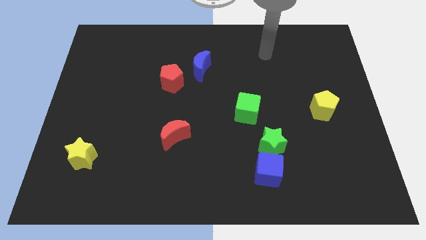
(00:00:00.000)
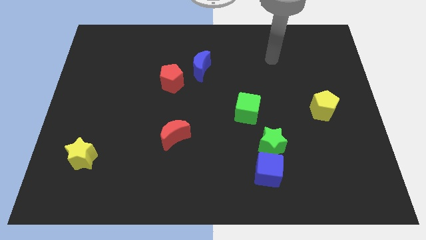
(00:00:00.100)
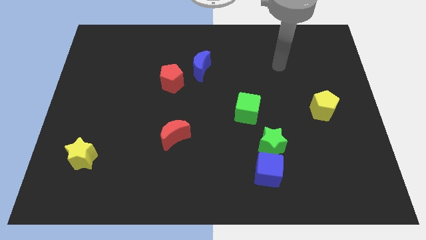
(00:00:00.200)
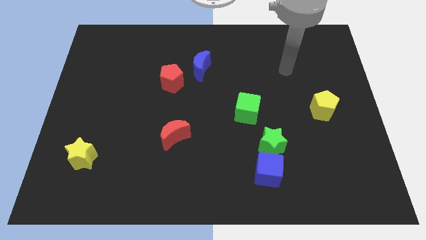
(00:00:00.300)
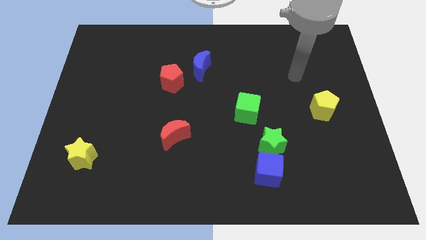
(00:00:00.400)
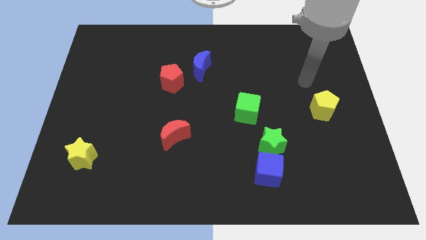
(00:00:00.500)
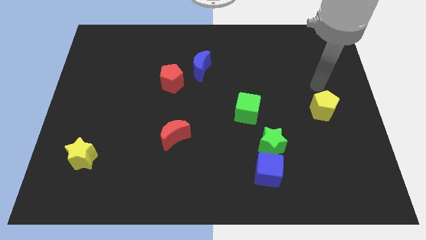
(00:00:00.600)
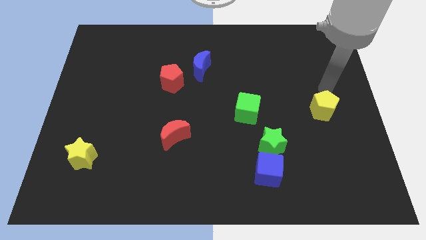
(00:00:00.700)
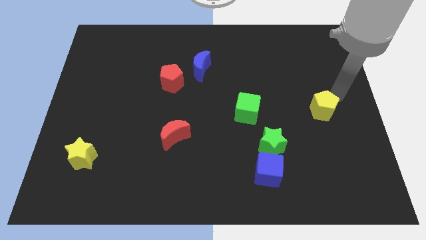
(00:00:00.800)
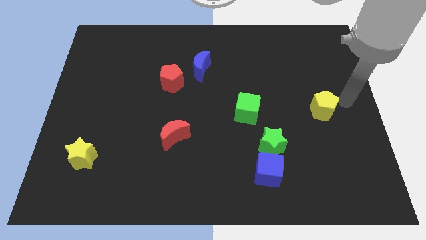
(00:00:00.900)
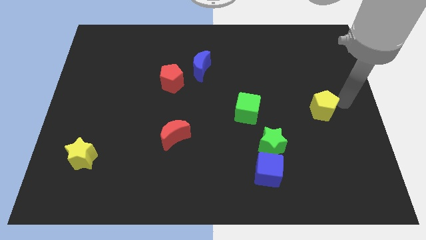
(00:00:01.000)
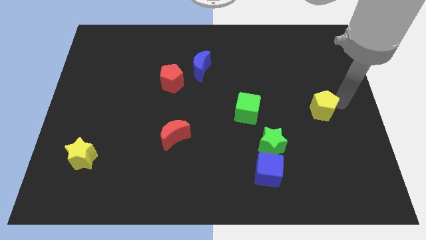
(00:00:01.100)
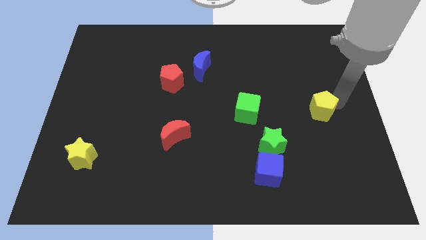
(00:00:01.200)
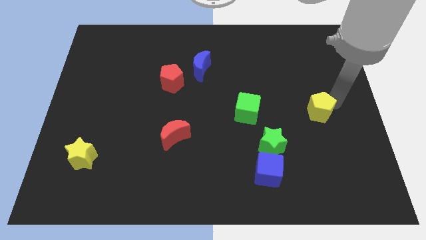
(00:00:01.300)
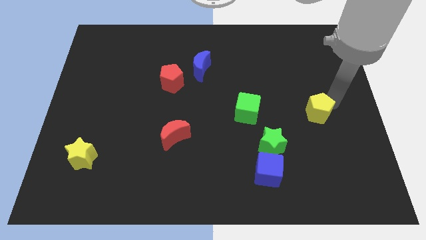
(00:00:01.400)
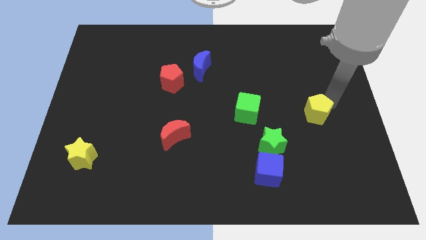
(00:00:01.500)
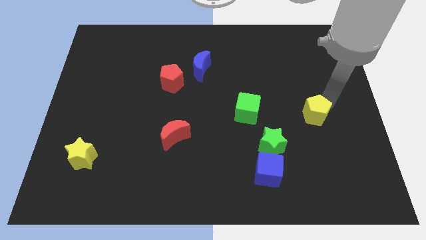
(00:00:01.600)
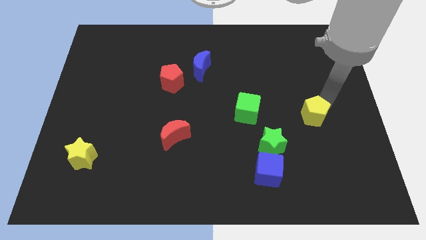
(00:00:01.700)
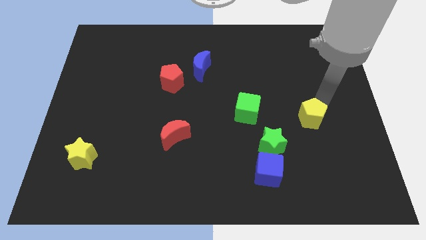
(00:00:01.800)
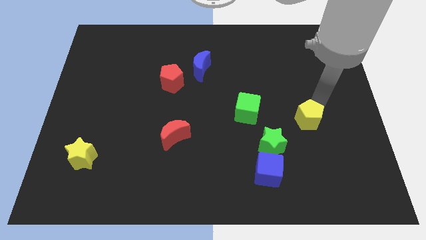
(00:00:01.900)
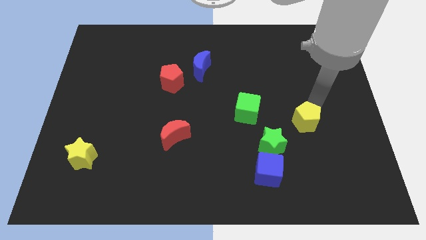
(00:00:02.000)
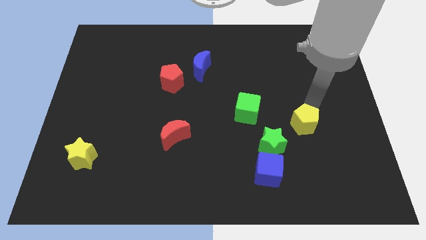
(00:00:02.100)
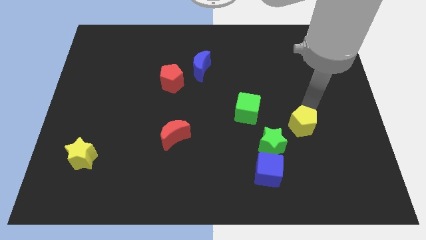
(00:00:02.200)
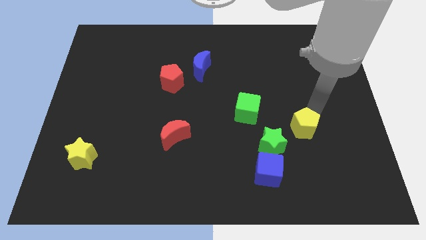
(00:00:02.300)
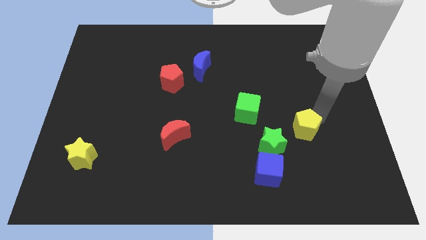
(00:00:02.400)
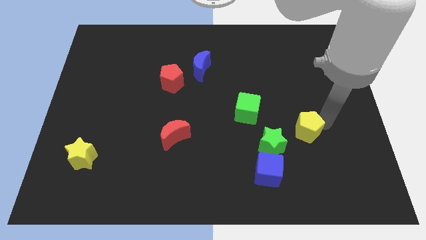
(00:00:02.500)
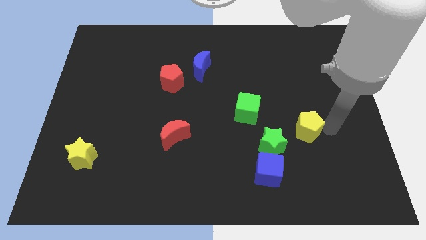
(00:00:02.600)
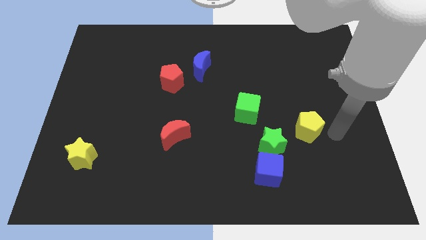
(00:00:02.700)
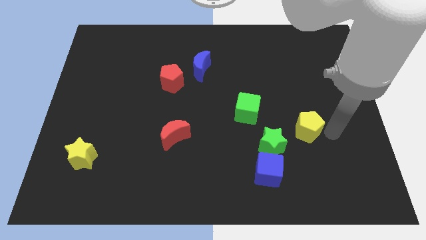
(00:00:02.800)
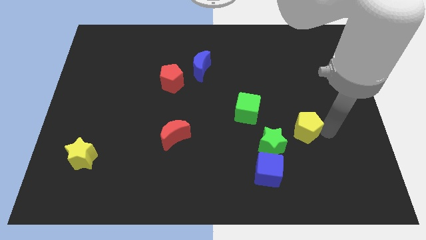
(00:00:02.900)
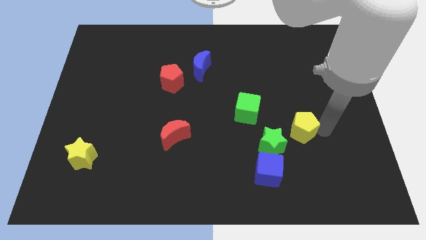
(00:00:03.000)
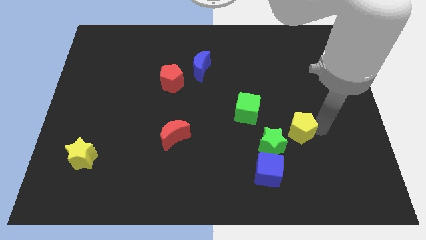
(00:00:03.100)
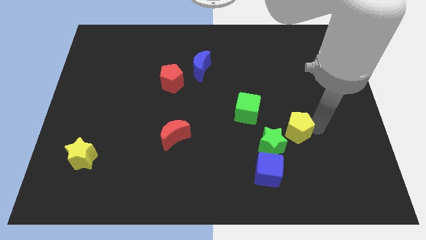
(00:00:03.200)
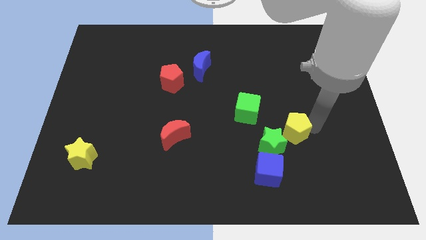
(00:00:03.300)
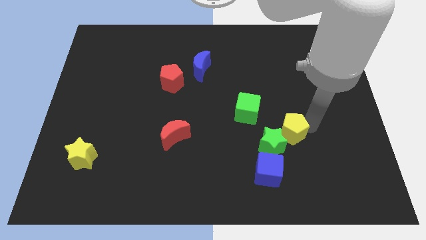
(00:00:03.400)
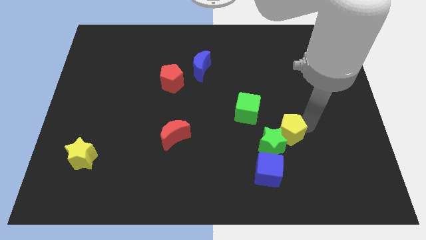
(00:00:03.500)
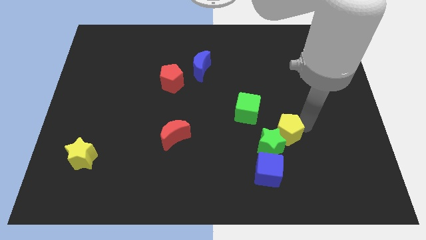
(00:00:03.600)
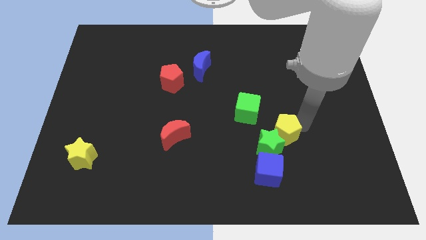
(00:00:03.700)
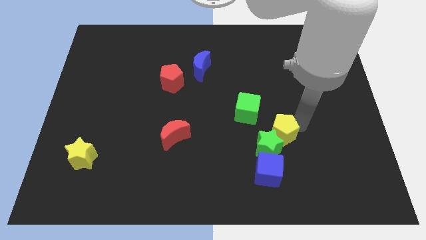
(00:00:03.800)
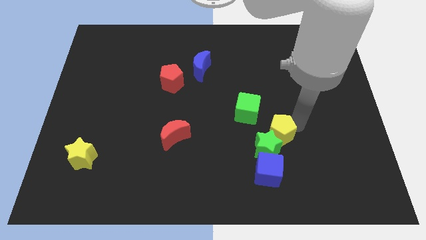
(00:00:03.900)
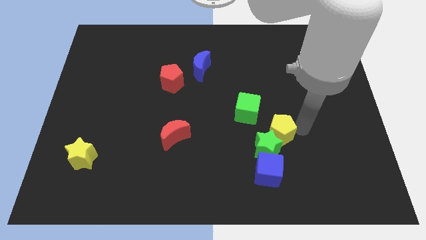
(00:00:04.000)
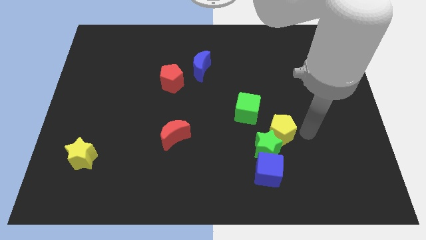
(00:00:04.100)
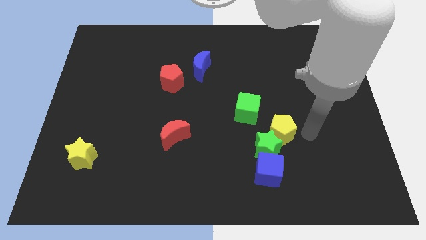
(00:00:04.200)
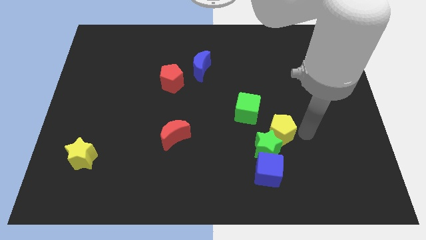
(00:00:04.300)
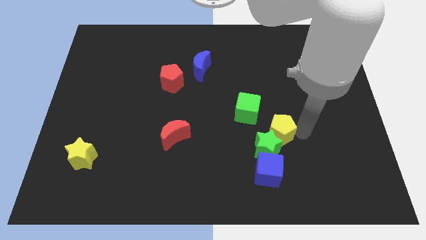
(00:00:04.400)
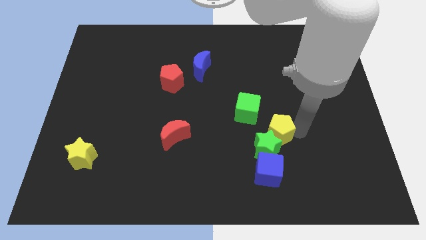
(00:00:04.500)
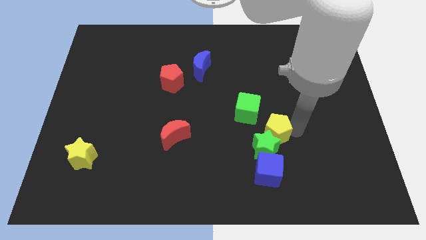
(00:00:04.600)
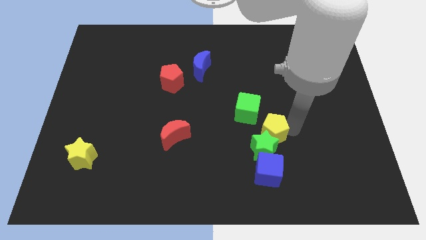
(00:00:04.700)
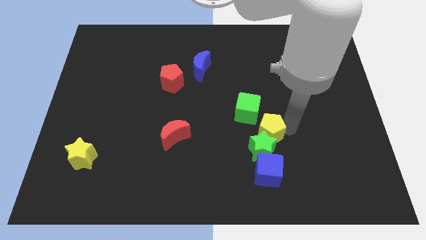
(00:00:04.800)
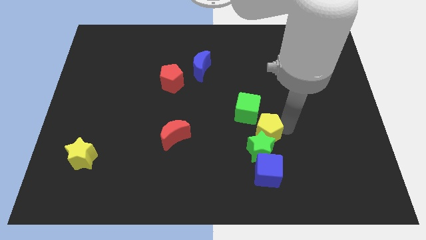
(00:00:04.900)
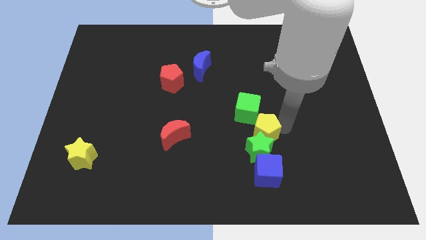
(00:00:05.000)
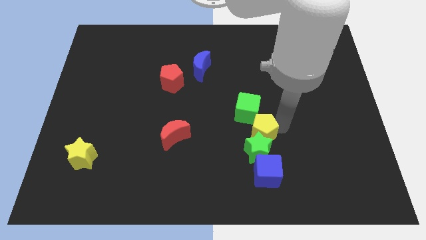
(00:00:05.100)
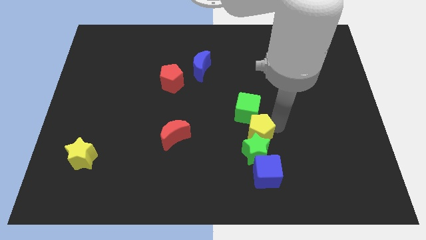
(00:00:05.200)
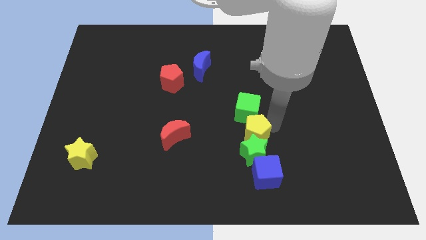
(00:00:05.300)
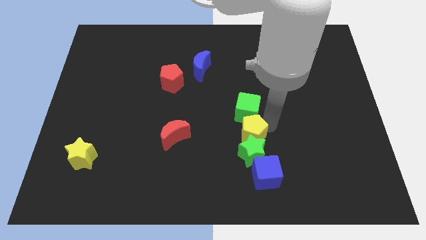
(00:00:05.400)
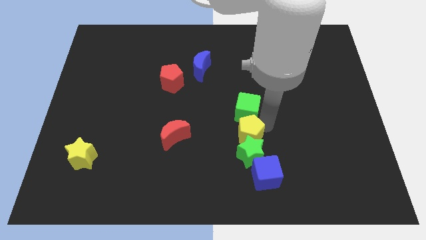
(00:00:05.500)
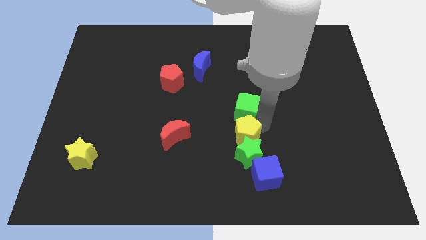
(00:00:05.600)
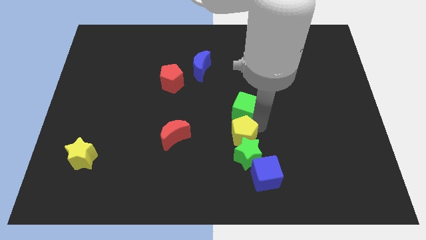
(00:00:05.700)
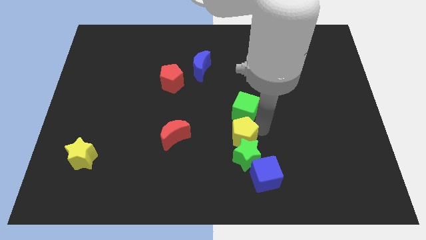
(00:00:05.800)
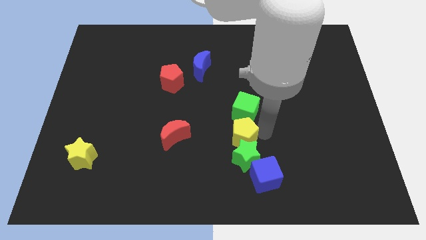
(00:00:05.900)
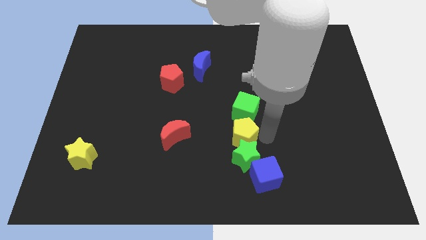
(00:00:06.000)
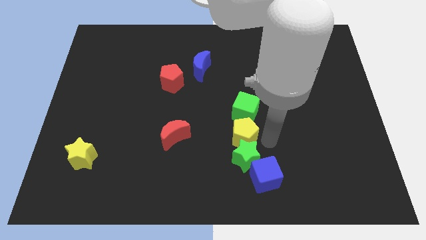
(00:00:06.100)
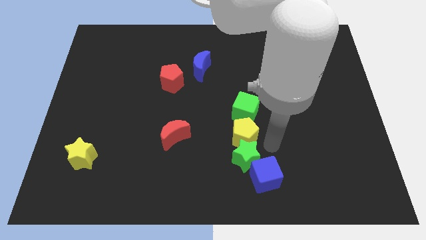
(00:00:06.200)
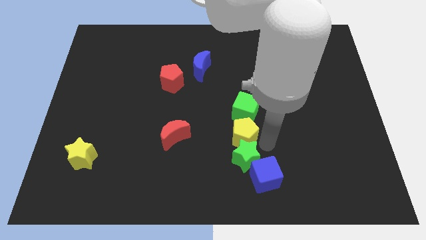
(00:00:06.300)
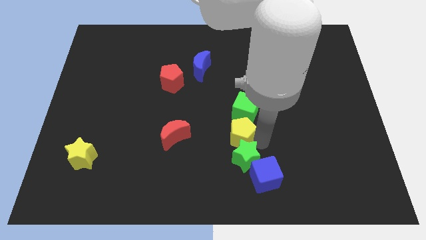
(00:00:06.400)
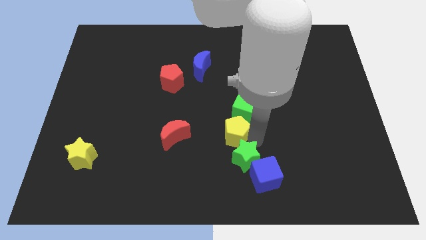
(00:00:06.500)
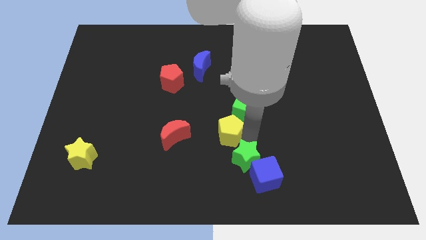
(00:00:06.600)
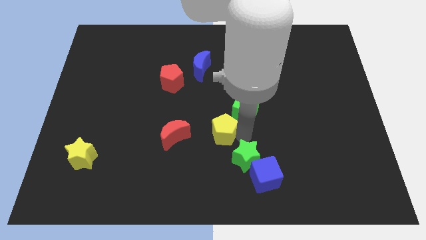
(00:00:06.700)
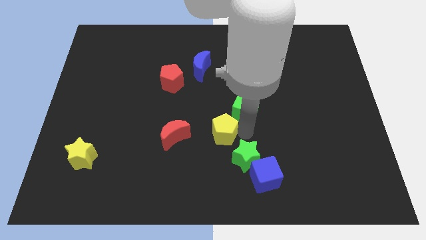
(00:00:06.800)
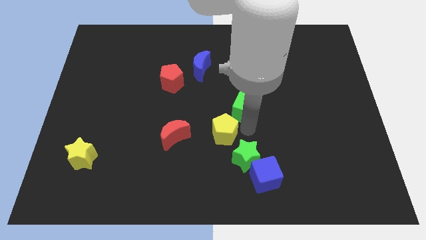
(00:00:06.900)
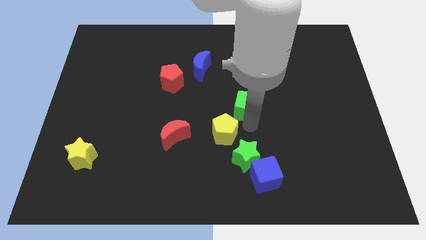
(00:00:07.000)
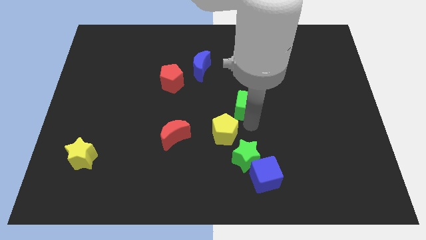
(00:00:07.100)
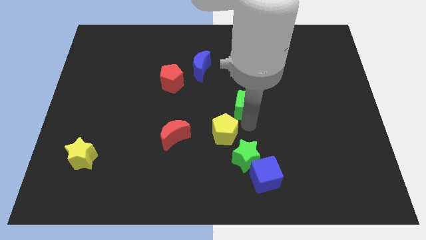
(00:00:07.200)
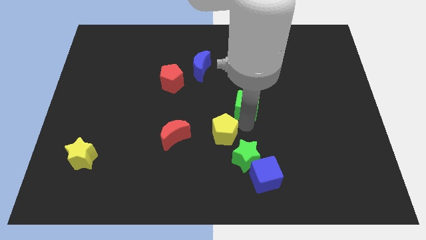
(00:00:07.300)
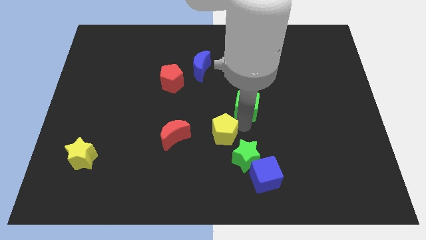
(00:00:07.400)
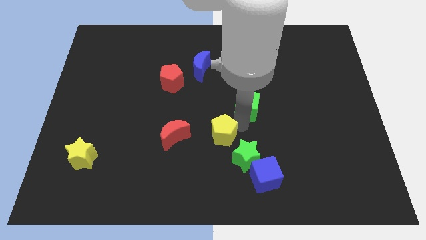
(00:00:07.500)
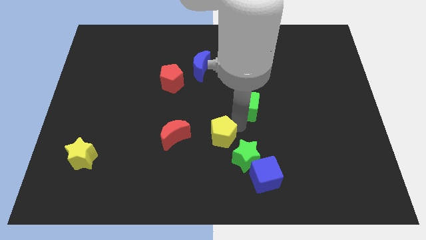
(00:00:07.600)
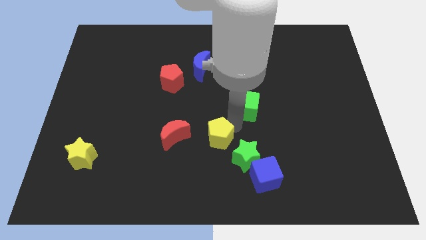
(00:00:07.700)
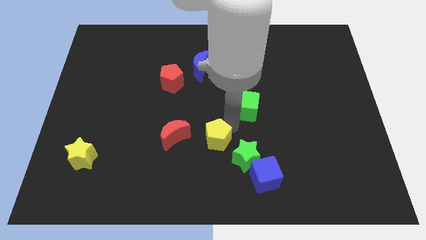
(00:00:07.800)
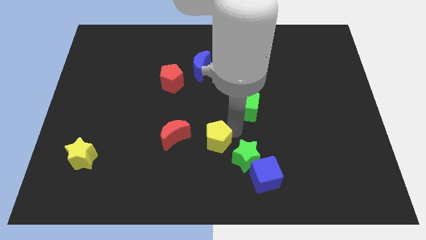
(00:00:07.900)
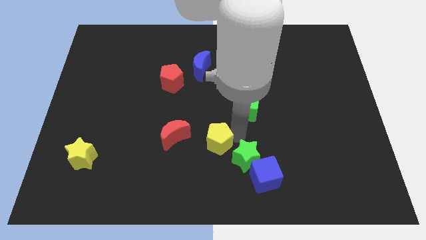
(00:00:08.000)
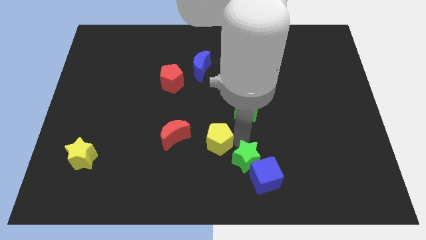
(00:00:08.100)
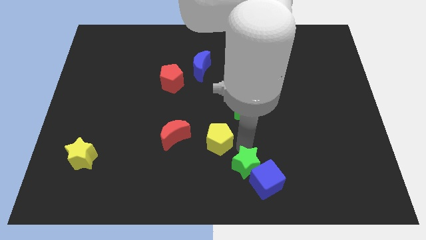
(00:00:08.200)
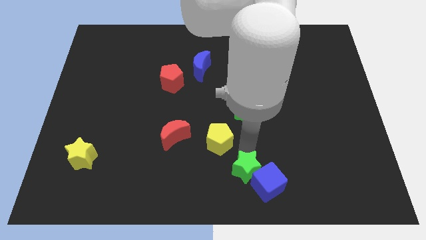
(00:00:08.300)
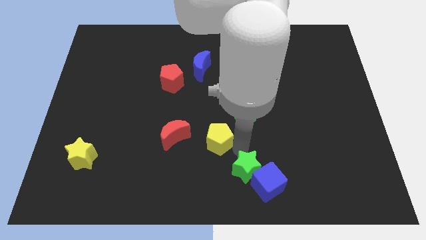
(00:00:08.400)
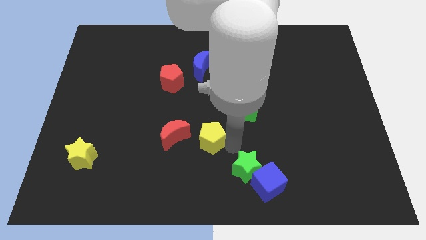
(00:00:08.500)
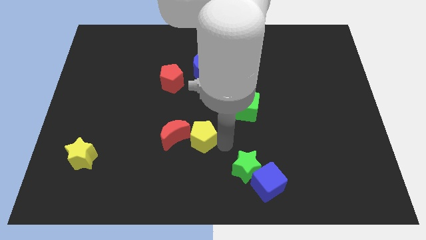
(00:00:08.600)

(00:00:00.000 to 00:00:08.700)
move the yellow pentagon towards the red moon
